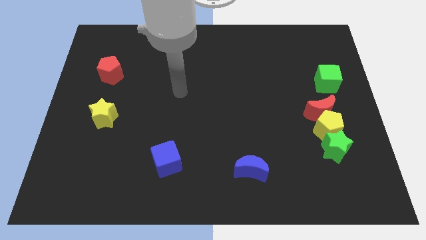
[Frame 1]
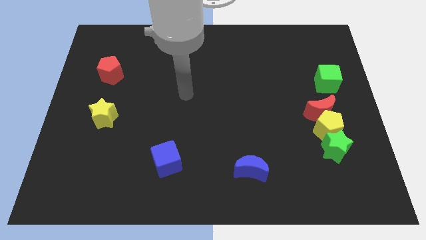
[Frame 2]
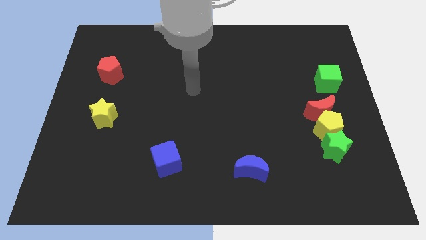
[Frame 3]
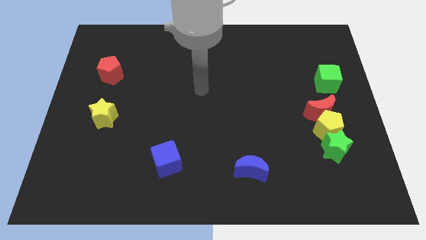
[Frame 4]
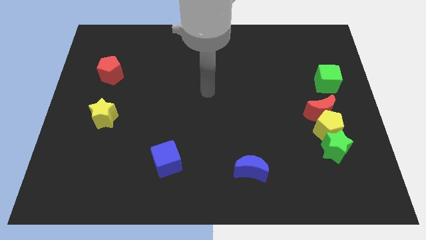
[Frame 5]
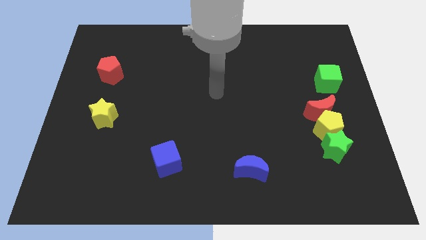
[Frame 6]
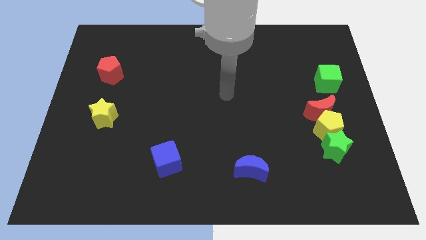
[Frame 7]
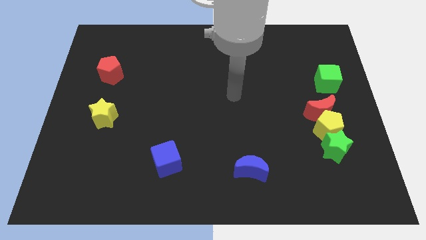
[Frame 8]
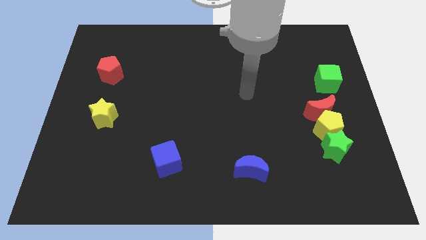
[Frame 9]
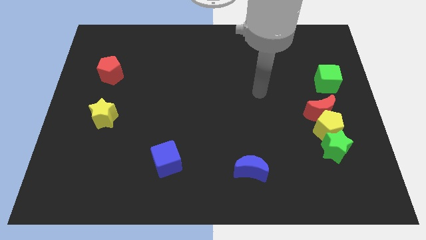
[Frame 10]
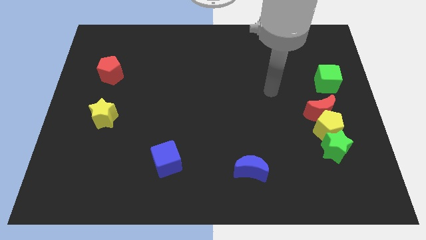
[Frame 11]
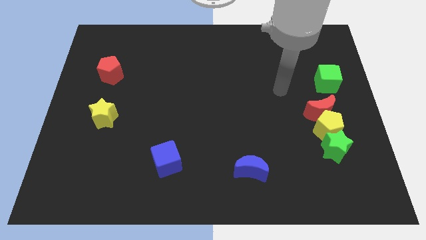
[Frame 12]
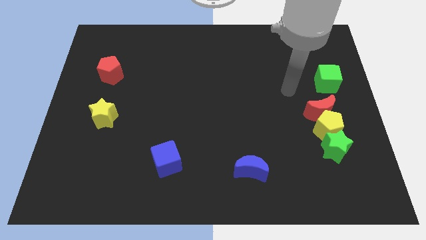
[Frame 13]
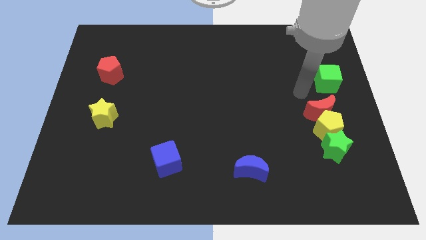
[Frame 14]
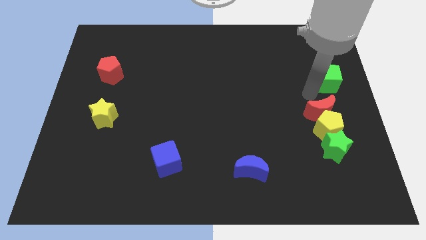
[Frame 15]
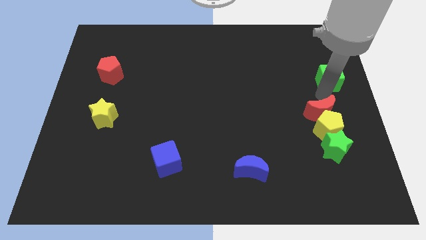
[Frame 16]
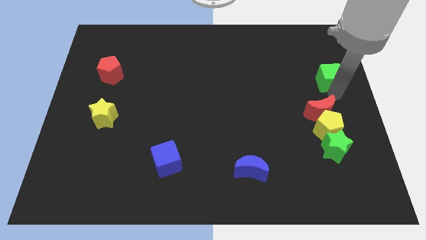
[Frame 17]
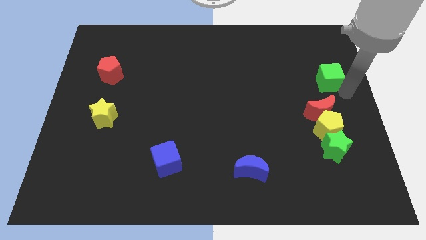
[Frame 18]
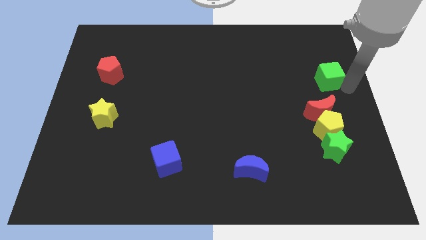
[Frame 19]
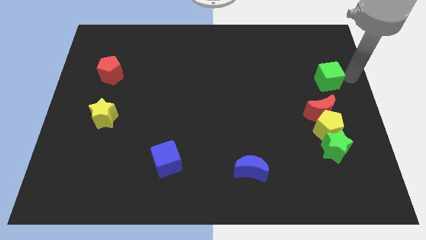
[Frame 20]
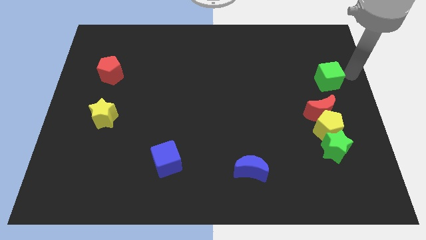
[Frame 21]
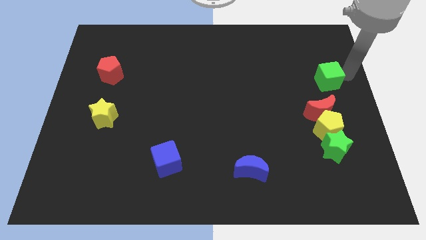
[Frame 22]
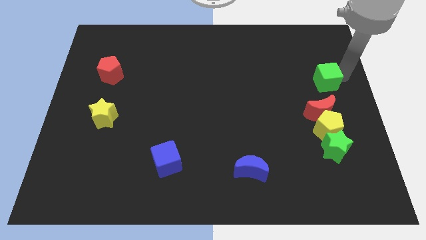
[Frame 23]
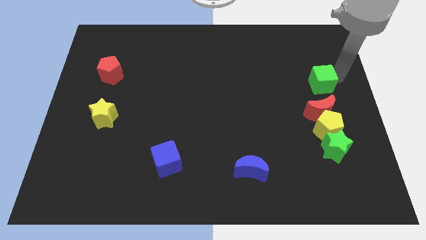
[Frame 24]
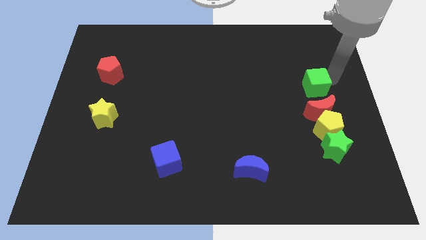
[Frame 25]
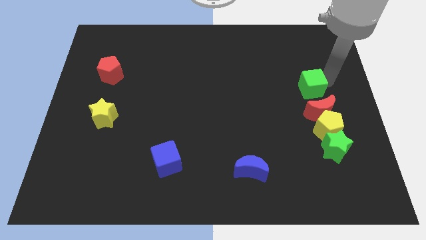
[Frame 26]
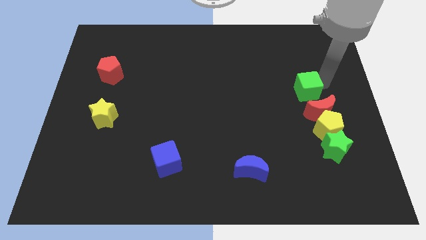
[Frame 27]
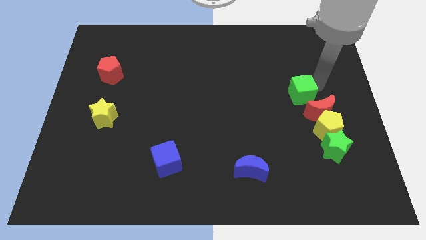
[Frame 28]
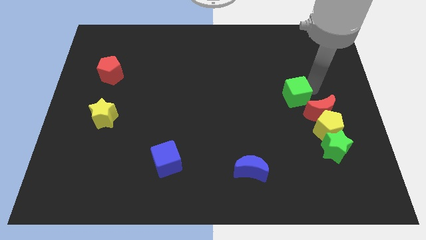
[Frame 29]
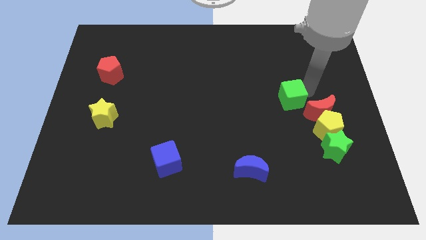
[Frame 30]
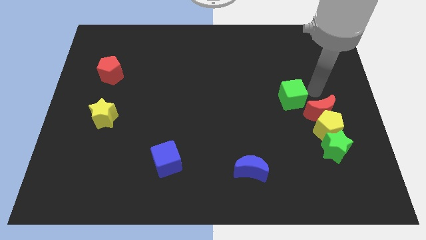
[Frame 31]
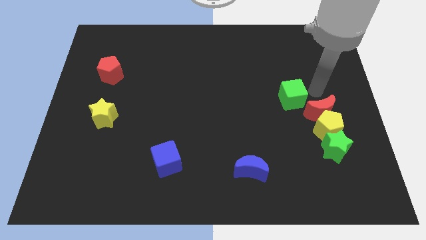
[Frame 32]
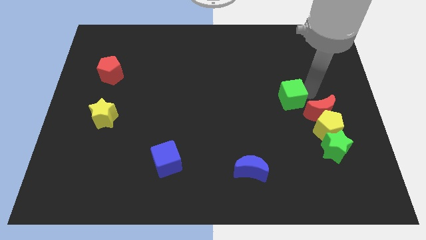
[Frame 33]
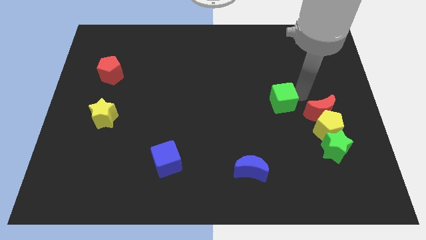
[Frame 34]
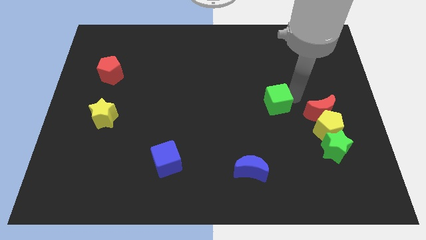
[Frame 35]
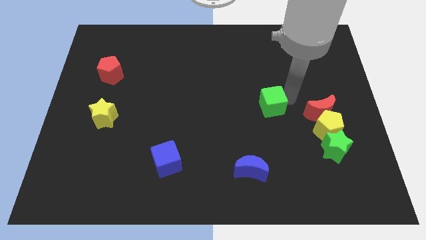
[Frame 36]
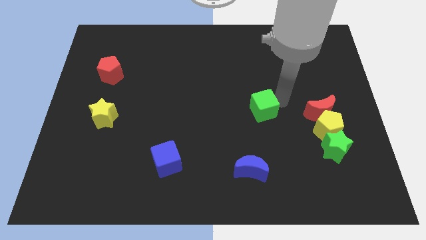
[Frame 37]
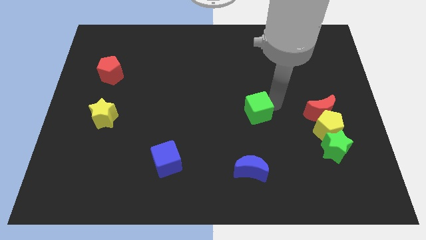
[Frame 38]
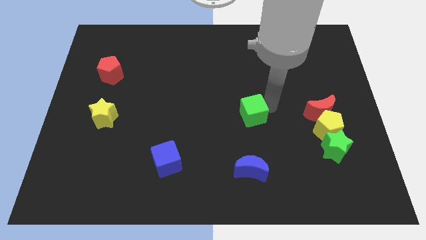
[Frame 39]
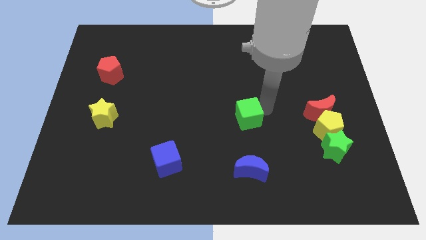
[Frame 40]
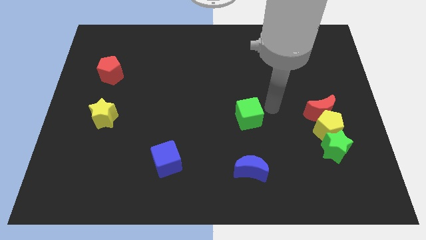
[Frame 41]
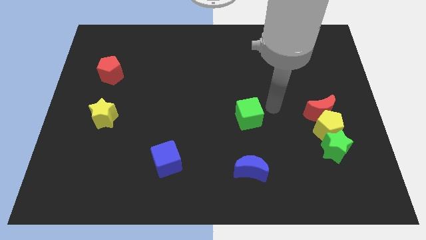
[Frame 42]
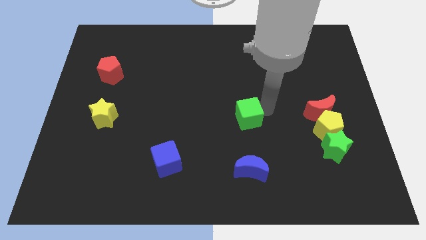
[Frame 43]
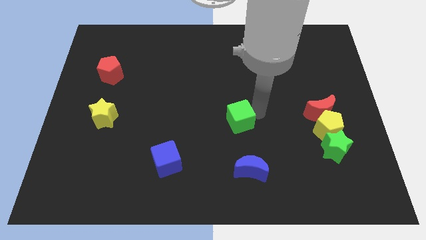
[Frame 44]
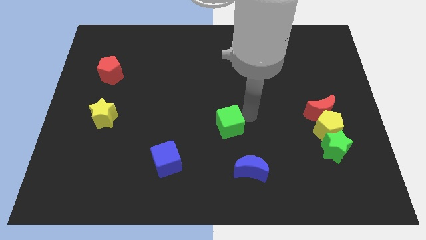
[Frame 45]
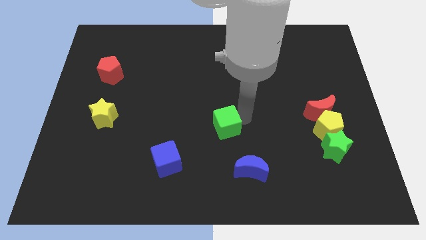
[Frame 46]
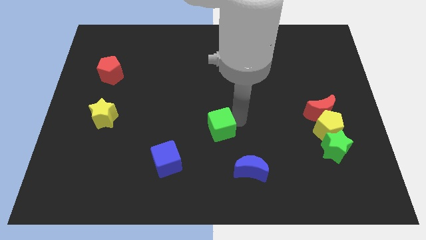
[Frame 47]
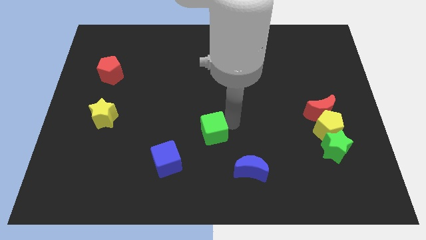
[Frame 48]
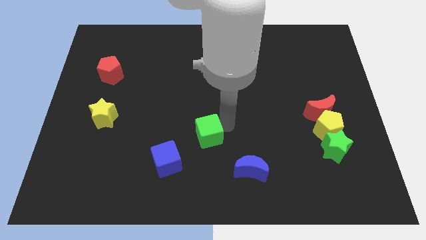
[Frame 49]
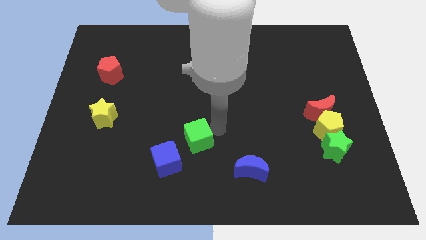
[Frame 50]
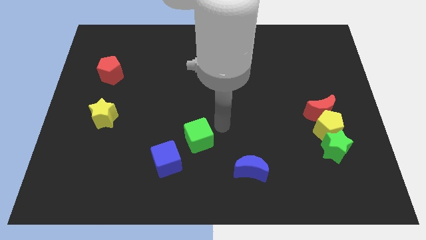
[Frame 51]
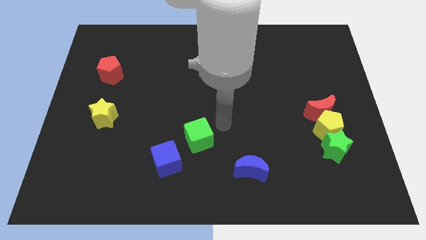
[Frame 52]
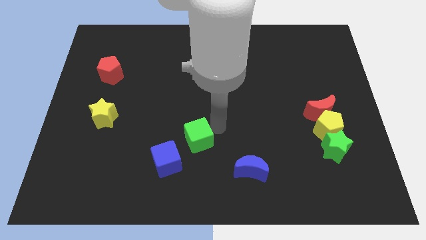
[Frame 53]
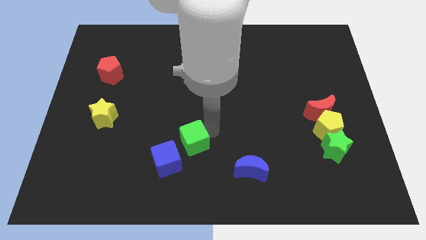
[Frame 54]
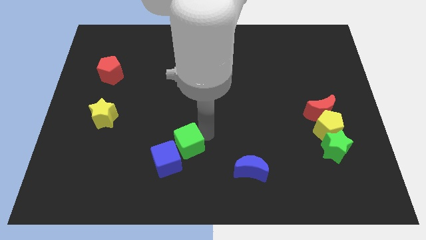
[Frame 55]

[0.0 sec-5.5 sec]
put the green cube close to the blue cube

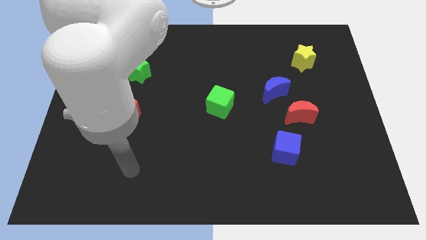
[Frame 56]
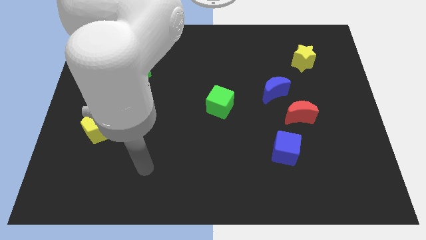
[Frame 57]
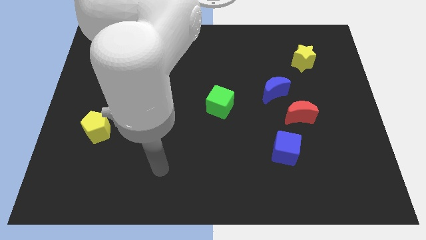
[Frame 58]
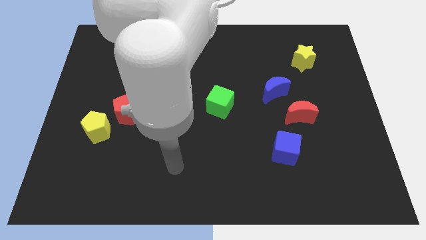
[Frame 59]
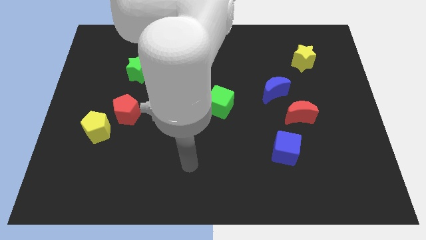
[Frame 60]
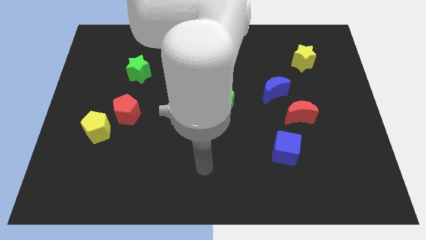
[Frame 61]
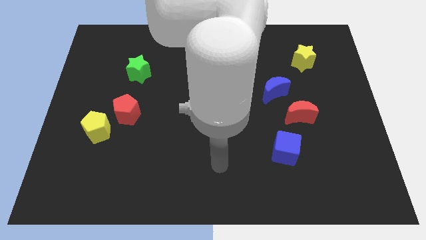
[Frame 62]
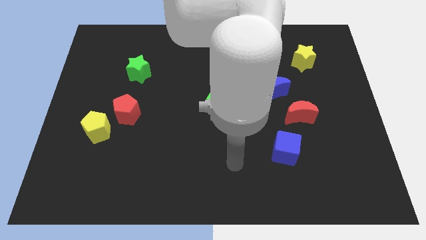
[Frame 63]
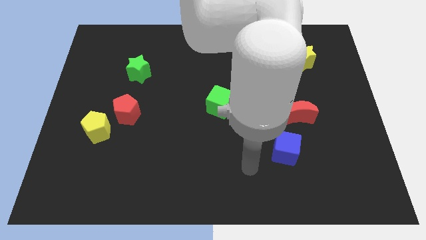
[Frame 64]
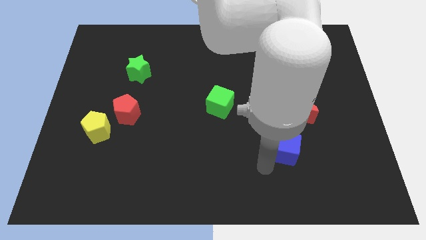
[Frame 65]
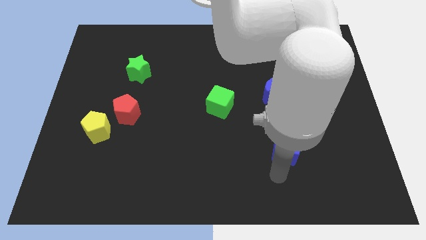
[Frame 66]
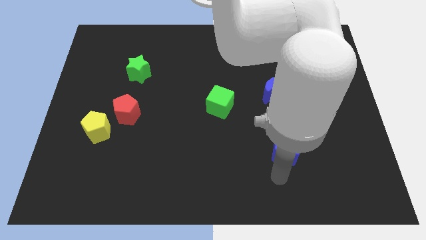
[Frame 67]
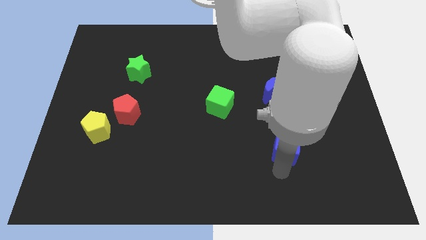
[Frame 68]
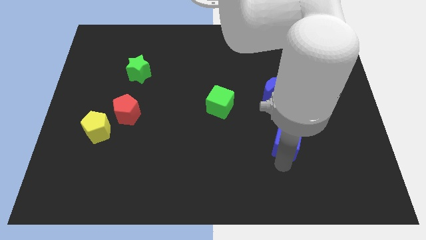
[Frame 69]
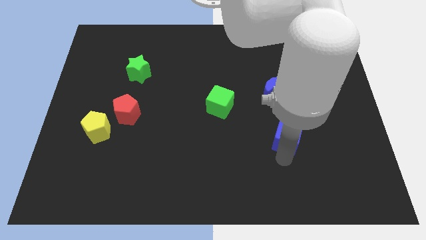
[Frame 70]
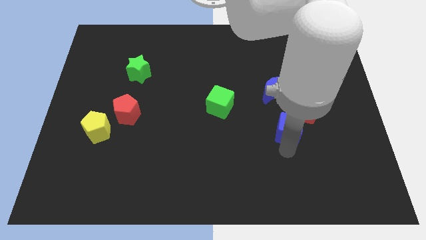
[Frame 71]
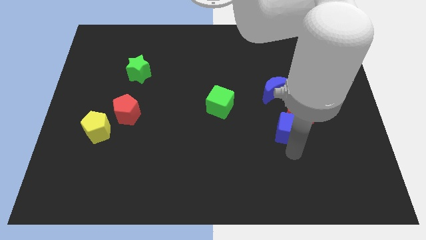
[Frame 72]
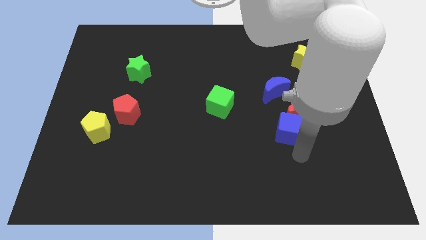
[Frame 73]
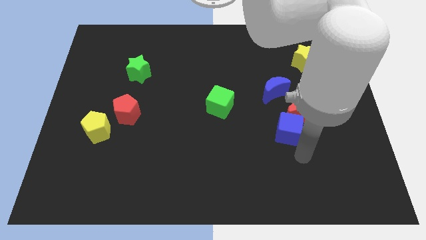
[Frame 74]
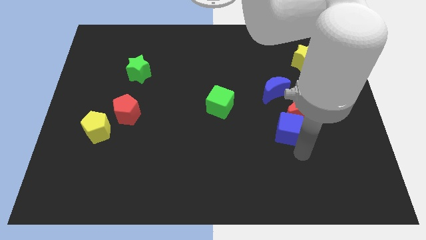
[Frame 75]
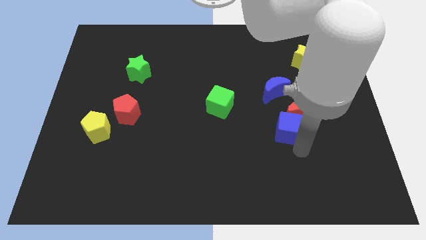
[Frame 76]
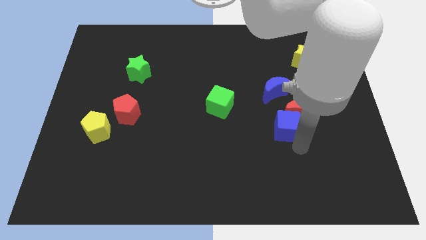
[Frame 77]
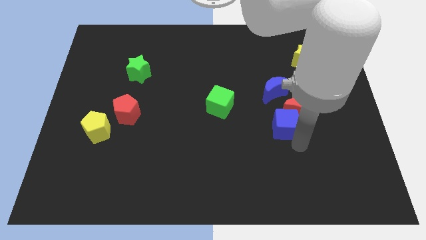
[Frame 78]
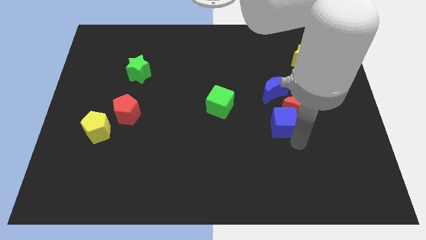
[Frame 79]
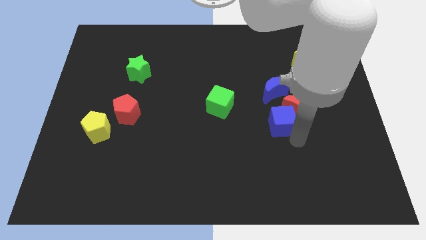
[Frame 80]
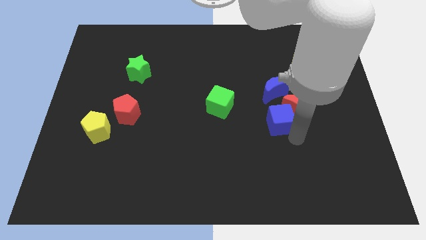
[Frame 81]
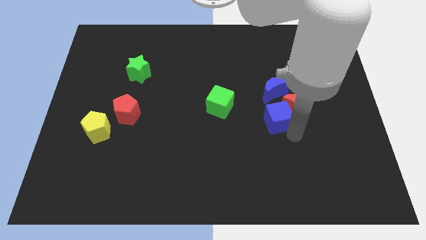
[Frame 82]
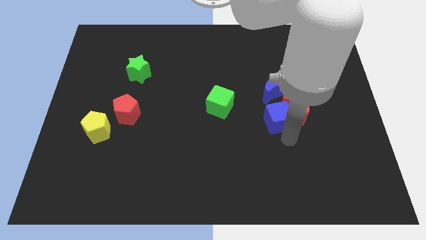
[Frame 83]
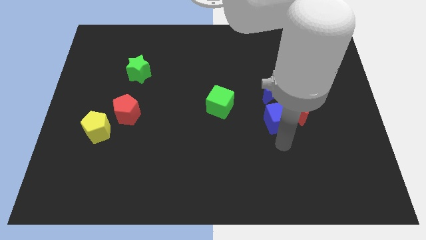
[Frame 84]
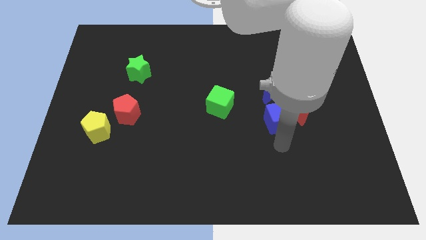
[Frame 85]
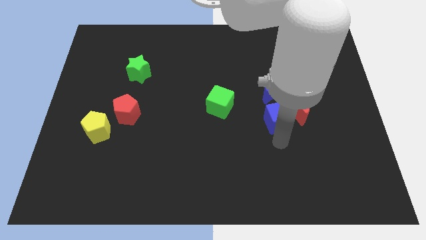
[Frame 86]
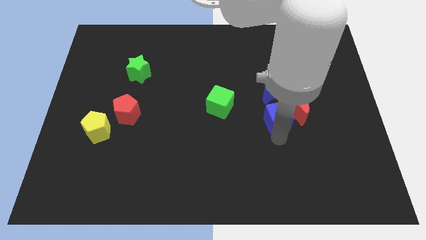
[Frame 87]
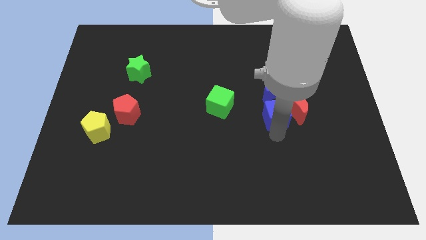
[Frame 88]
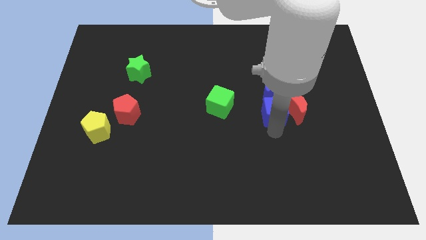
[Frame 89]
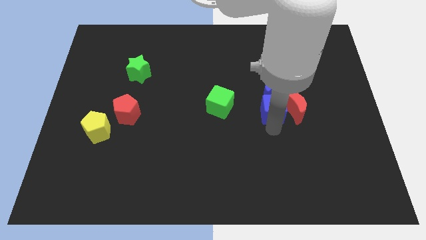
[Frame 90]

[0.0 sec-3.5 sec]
slide the blue cube next to the blue moon
